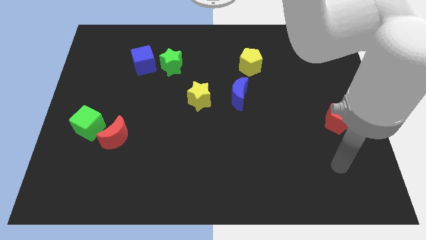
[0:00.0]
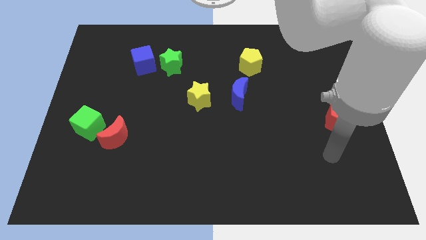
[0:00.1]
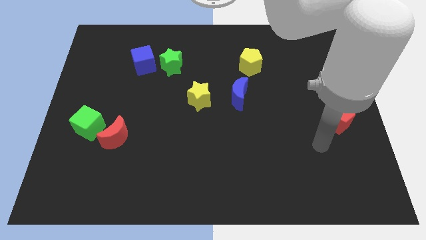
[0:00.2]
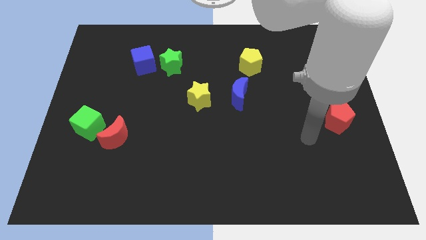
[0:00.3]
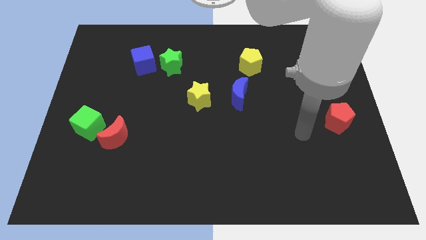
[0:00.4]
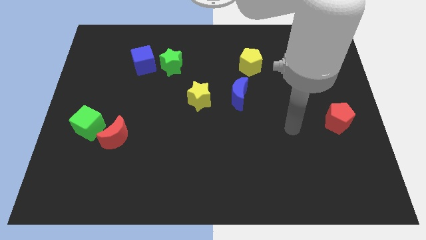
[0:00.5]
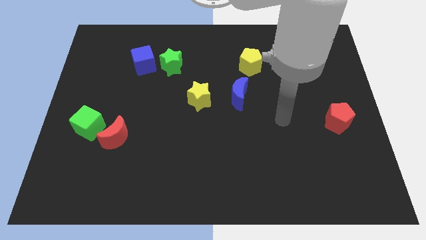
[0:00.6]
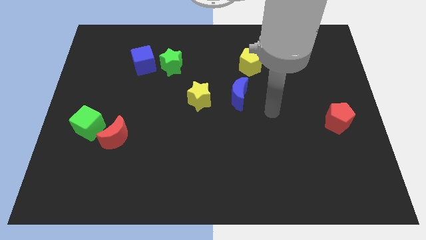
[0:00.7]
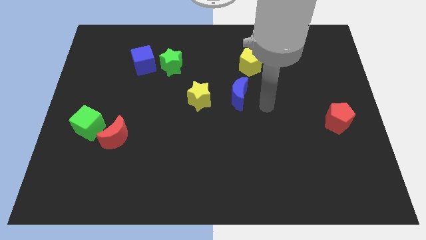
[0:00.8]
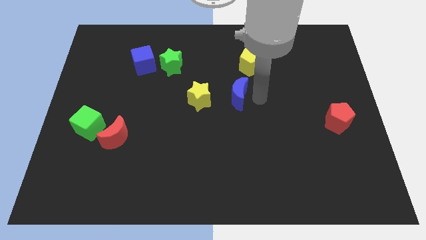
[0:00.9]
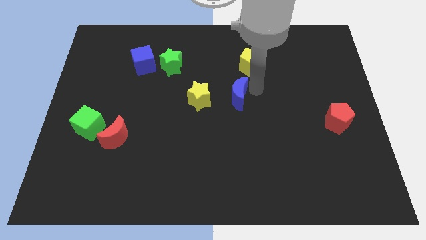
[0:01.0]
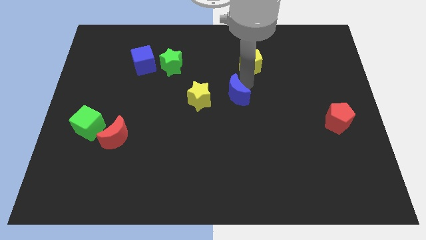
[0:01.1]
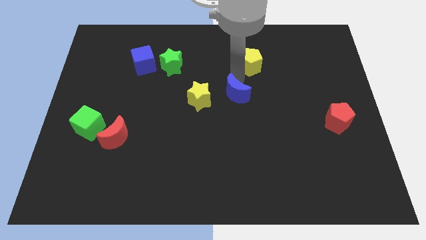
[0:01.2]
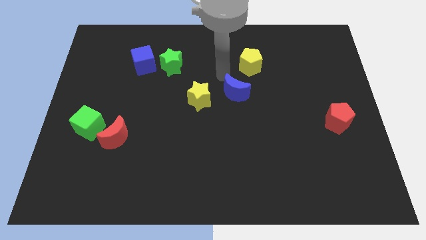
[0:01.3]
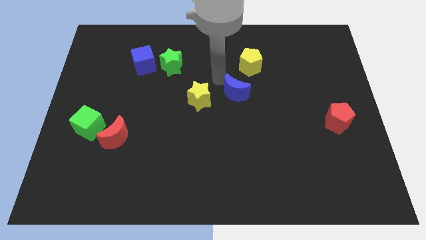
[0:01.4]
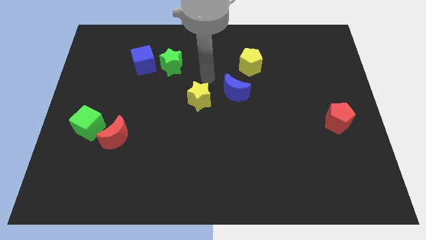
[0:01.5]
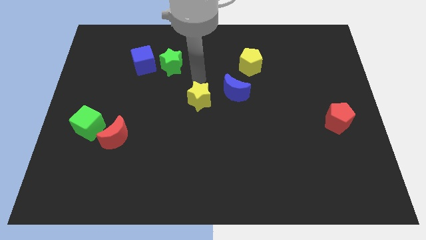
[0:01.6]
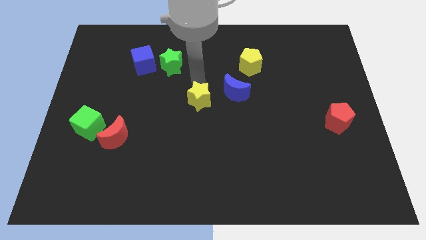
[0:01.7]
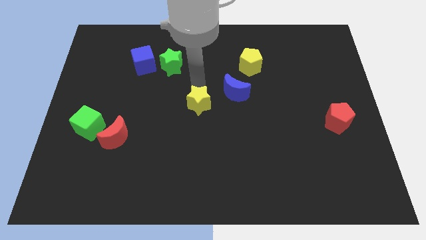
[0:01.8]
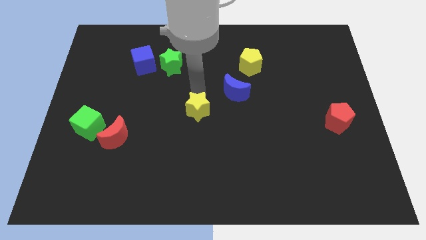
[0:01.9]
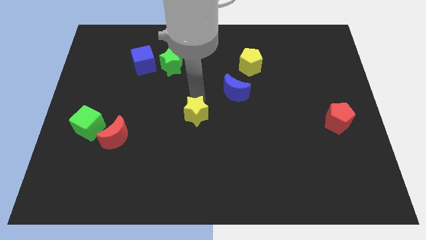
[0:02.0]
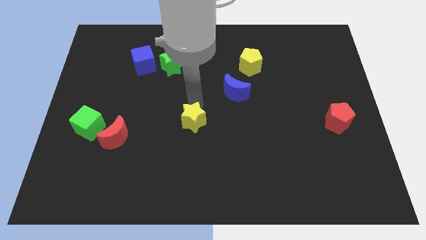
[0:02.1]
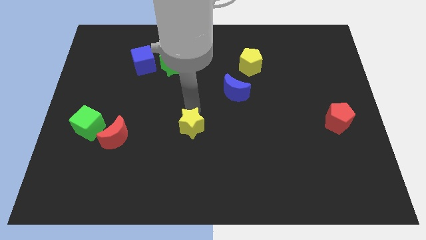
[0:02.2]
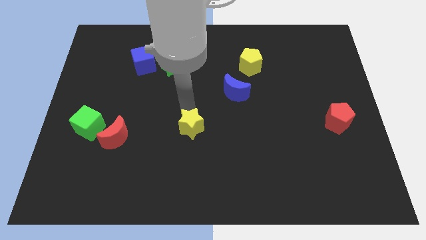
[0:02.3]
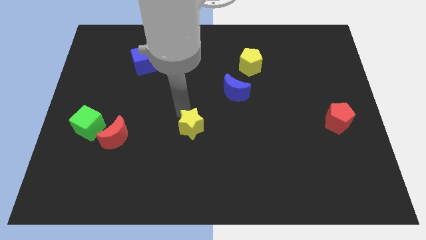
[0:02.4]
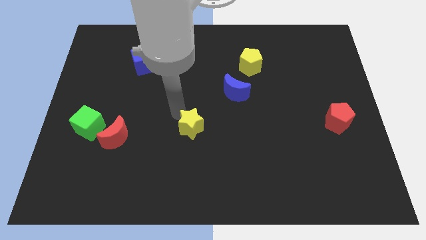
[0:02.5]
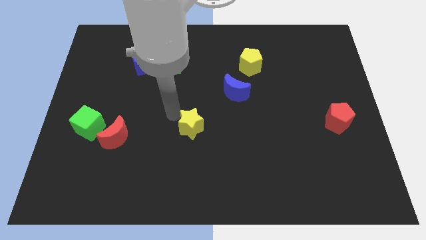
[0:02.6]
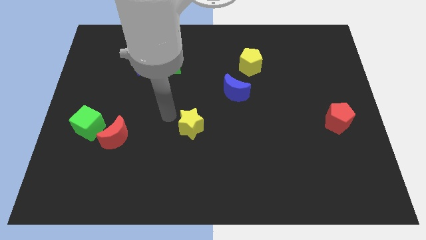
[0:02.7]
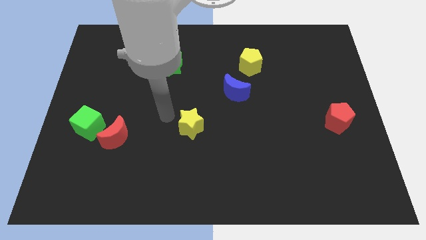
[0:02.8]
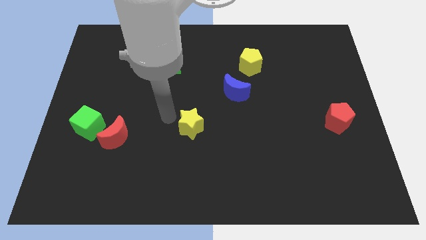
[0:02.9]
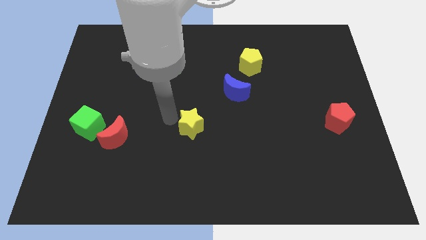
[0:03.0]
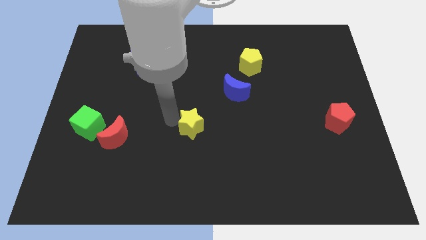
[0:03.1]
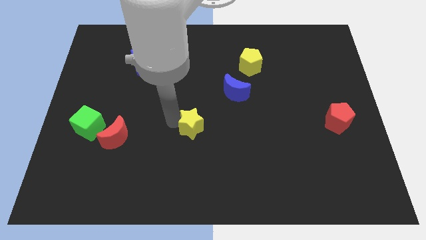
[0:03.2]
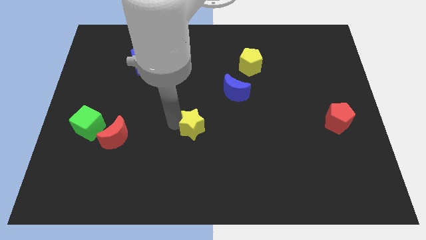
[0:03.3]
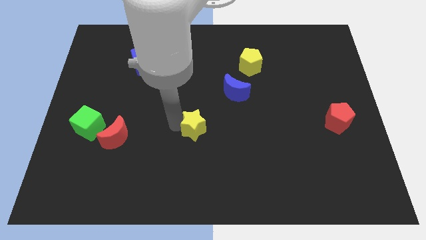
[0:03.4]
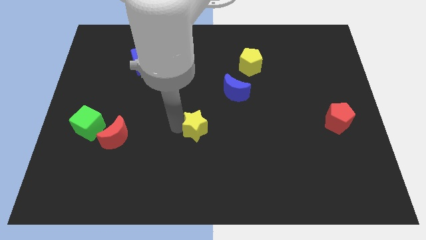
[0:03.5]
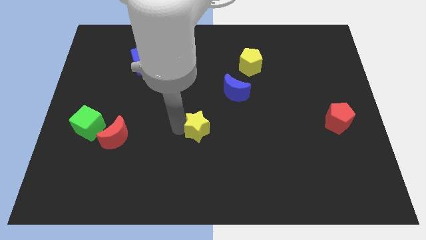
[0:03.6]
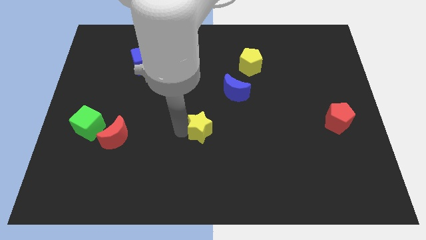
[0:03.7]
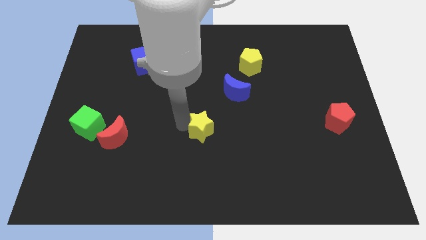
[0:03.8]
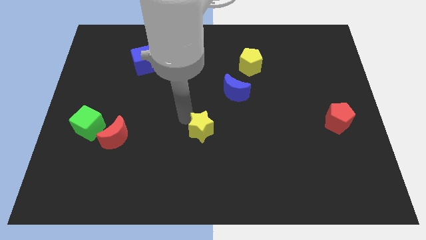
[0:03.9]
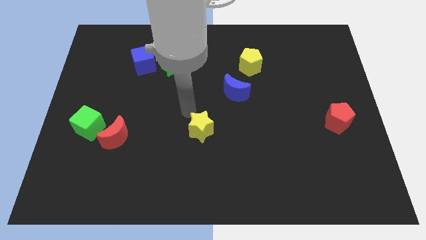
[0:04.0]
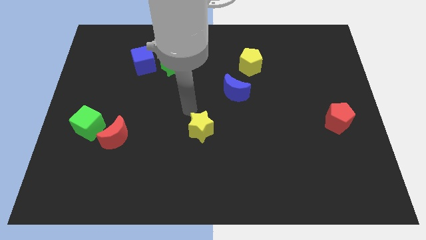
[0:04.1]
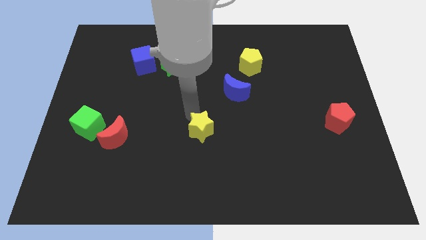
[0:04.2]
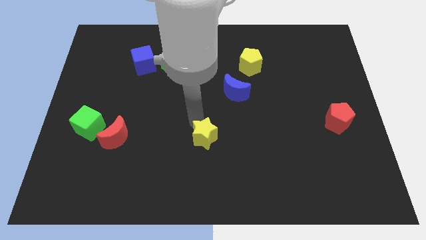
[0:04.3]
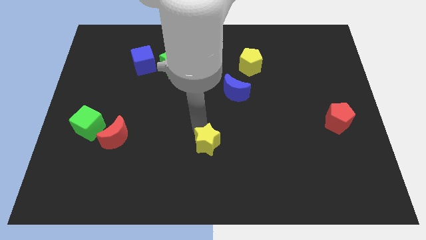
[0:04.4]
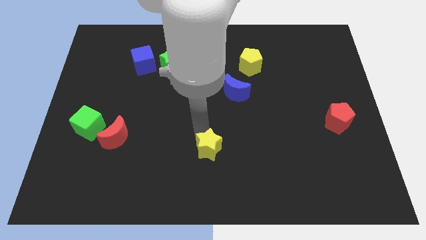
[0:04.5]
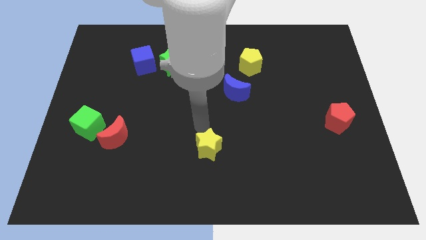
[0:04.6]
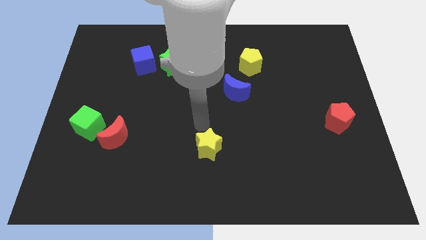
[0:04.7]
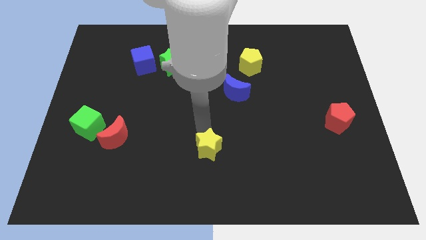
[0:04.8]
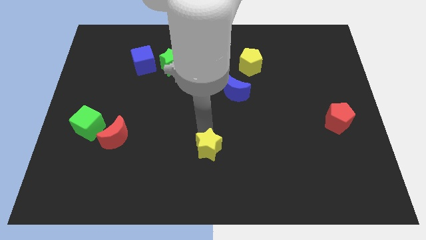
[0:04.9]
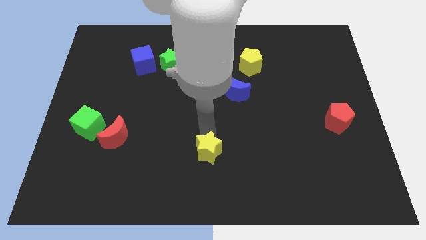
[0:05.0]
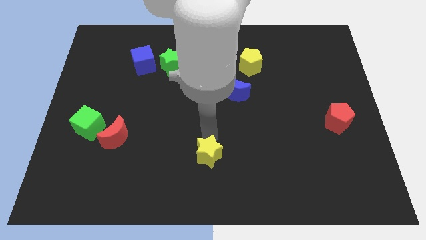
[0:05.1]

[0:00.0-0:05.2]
move the yellow star to the bottom side

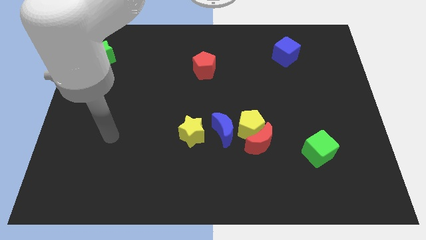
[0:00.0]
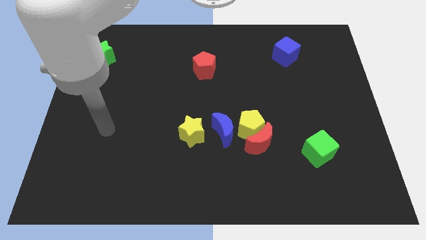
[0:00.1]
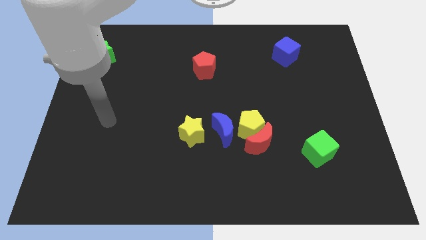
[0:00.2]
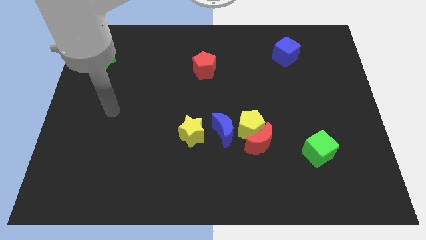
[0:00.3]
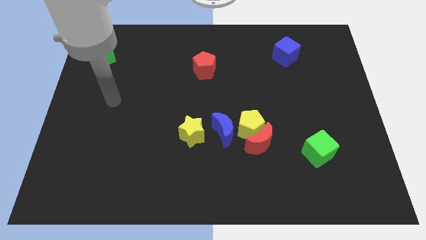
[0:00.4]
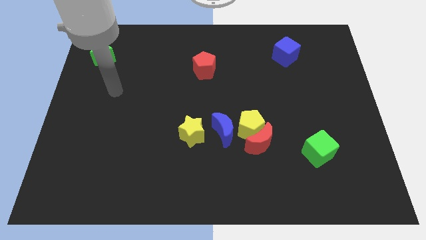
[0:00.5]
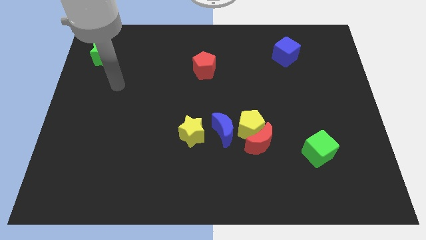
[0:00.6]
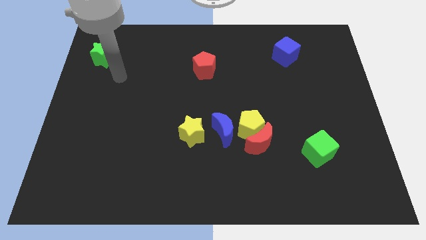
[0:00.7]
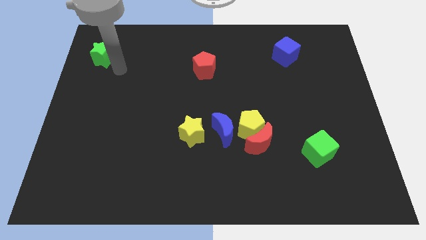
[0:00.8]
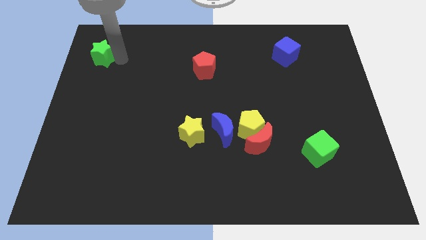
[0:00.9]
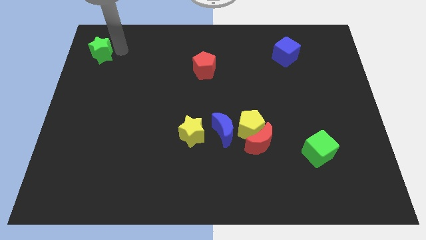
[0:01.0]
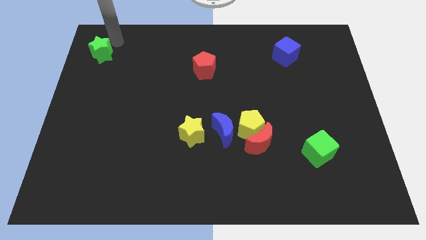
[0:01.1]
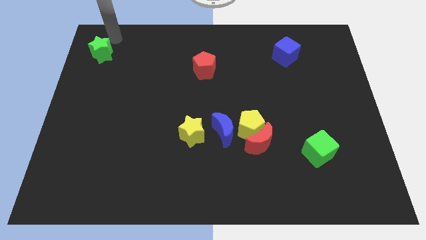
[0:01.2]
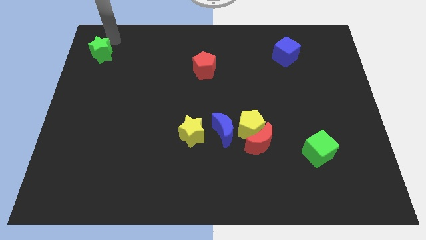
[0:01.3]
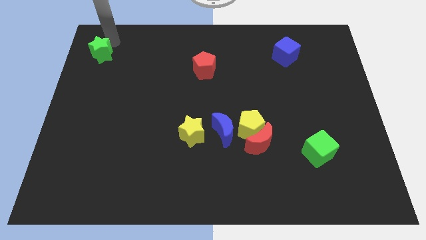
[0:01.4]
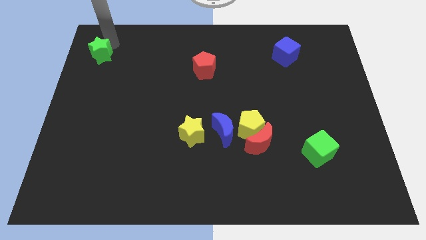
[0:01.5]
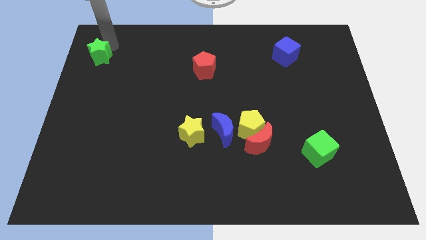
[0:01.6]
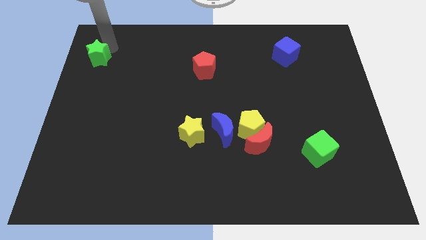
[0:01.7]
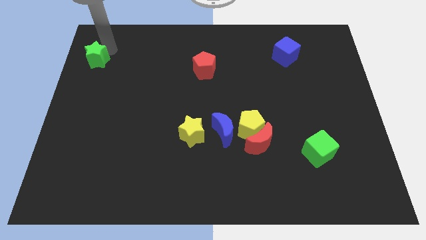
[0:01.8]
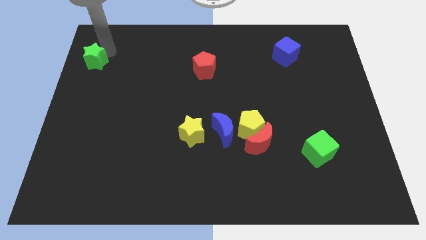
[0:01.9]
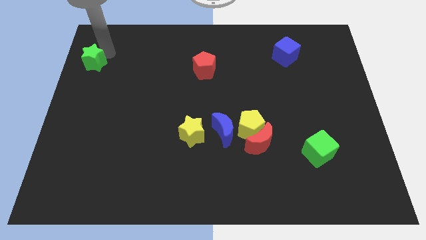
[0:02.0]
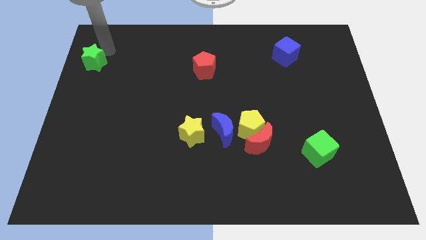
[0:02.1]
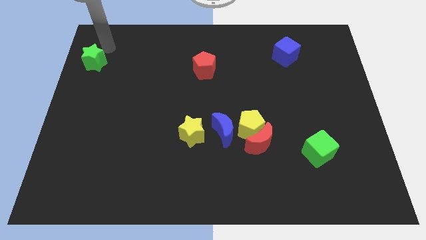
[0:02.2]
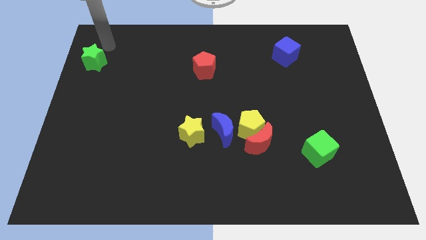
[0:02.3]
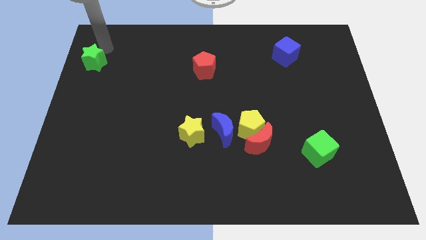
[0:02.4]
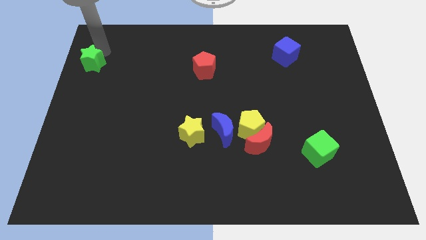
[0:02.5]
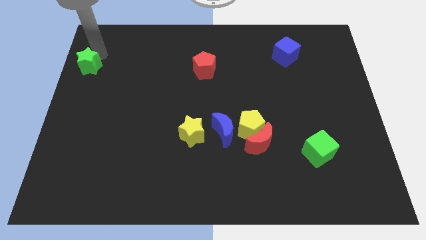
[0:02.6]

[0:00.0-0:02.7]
move the green star to the center left
